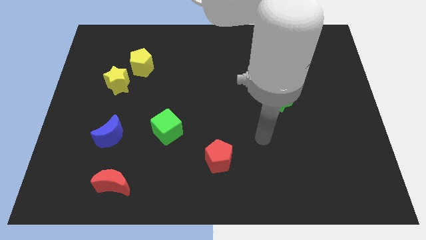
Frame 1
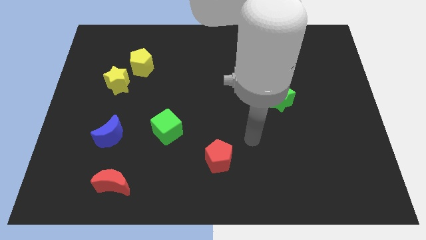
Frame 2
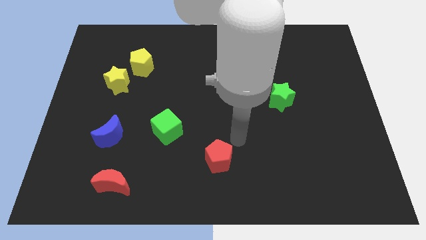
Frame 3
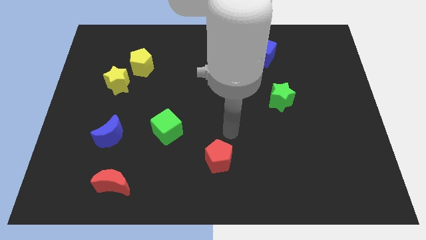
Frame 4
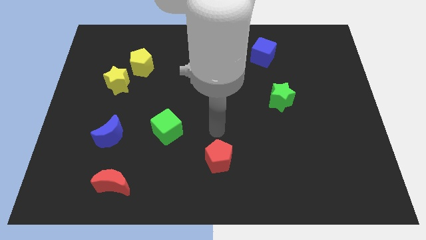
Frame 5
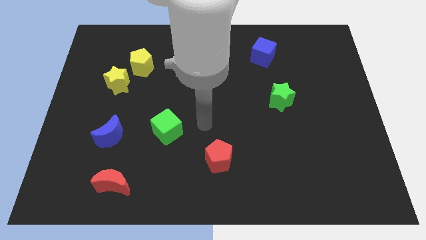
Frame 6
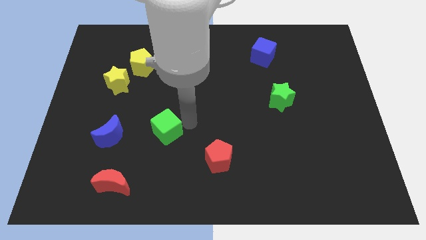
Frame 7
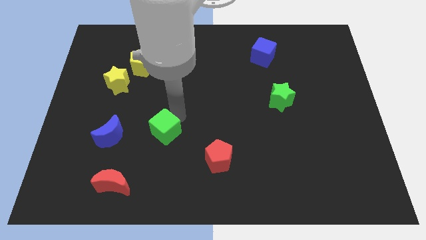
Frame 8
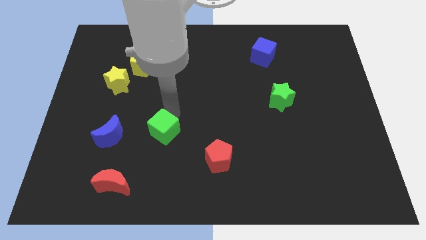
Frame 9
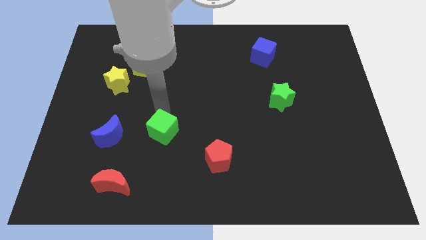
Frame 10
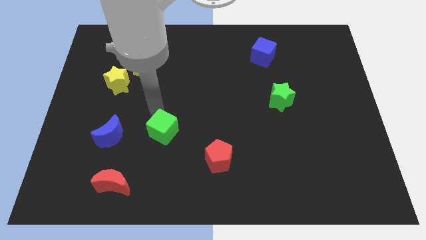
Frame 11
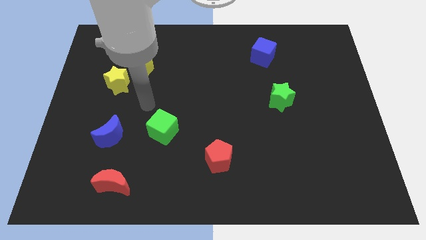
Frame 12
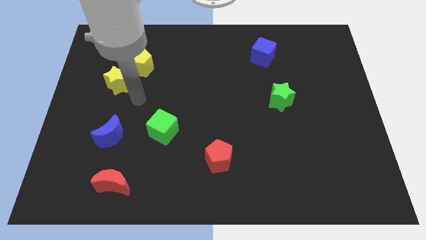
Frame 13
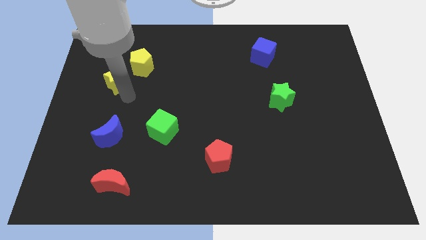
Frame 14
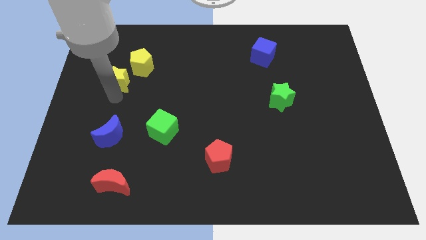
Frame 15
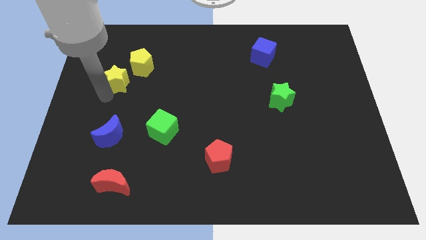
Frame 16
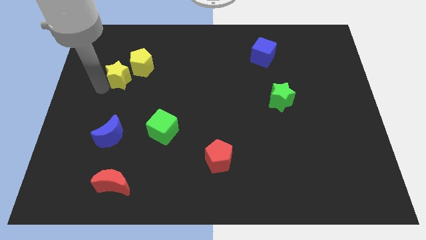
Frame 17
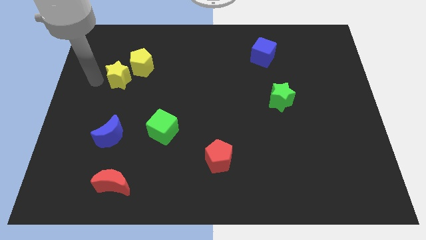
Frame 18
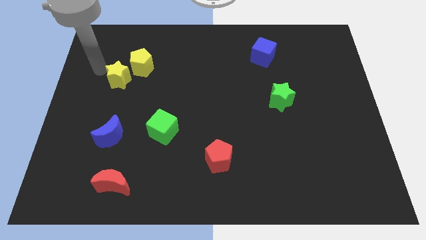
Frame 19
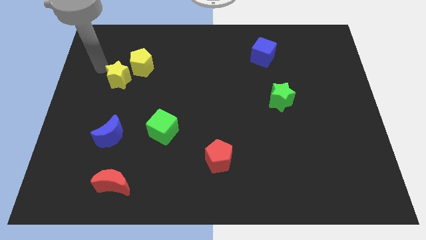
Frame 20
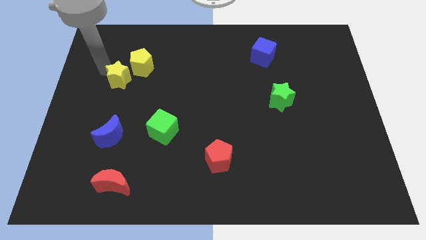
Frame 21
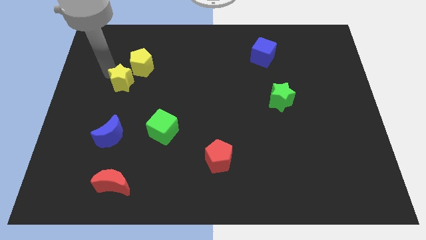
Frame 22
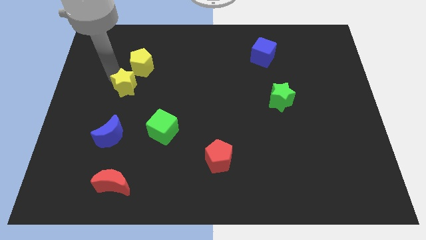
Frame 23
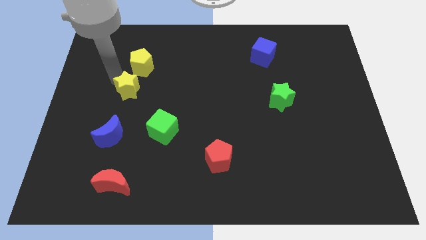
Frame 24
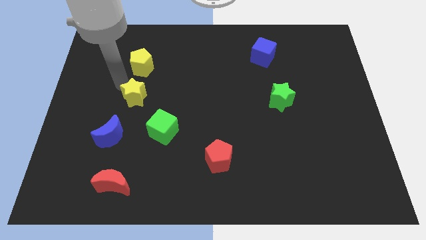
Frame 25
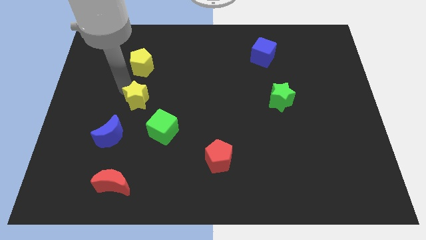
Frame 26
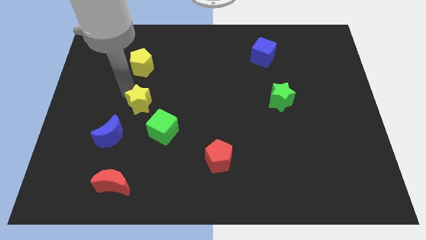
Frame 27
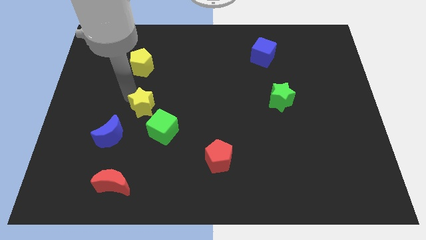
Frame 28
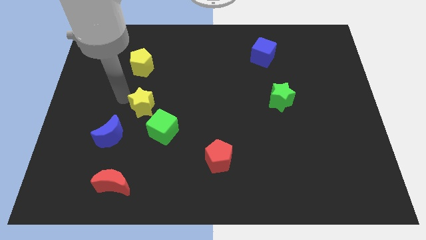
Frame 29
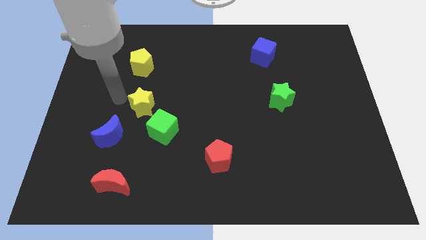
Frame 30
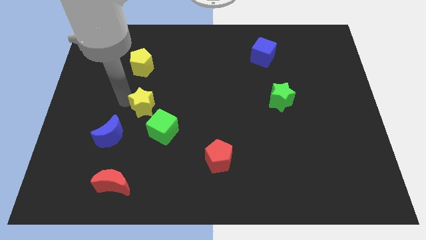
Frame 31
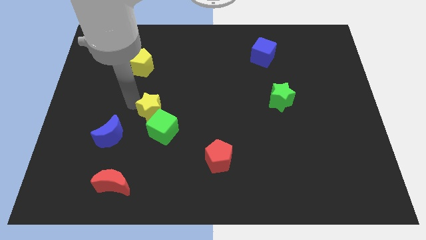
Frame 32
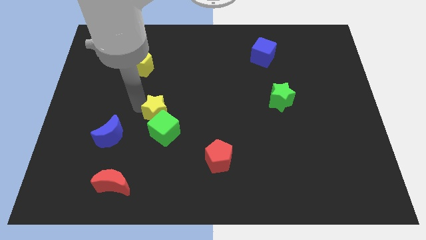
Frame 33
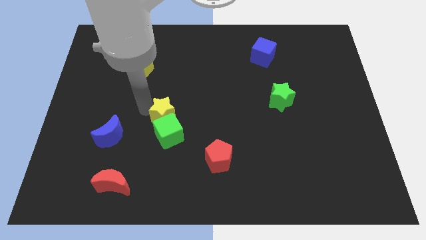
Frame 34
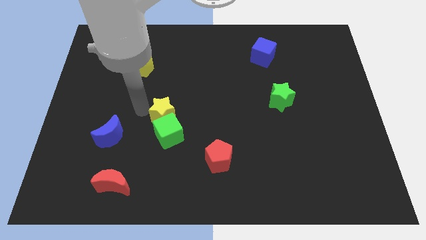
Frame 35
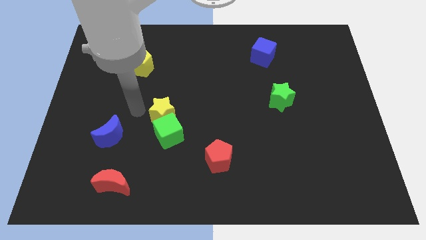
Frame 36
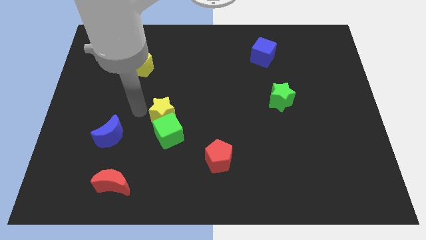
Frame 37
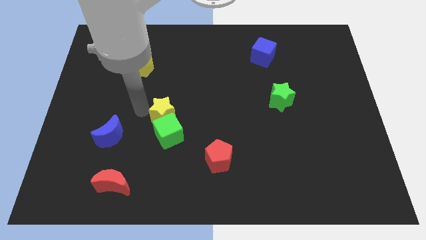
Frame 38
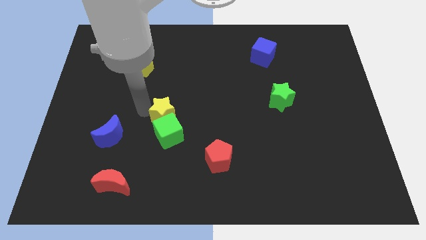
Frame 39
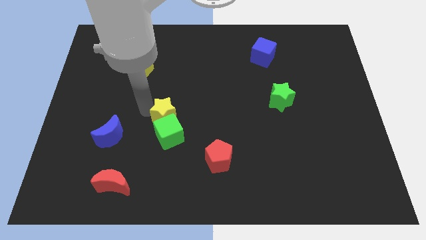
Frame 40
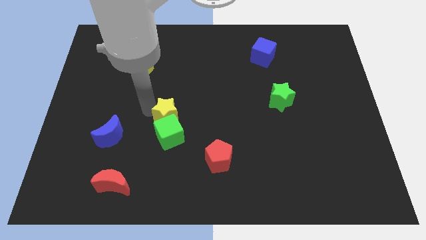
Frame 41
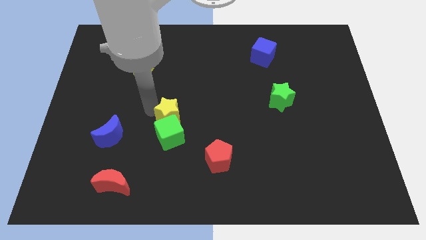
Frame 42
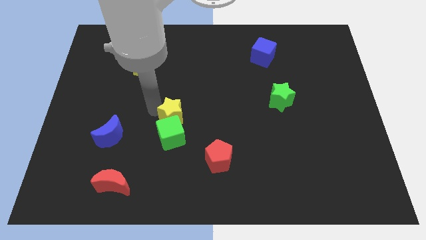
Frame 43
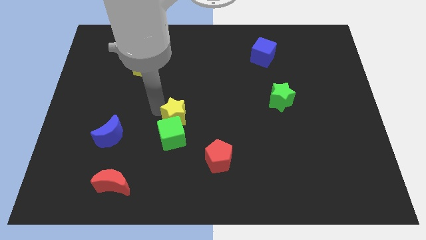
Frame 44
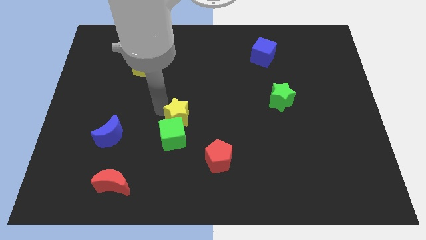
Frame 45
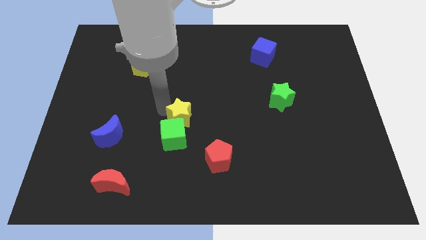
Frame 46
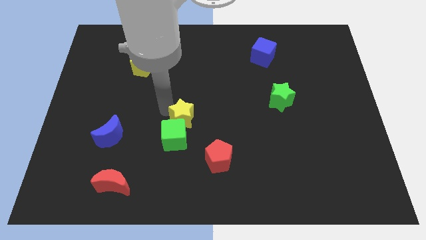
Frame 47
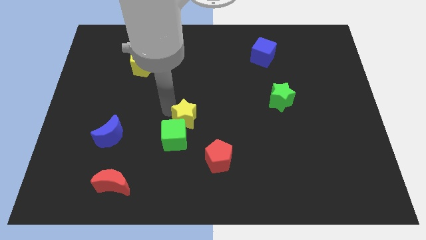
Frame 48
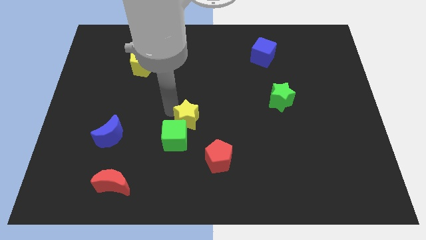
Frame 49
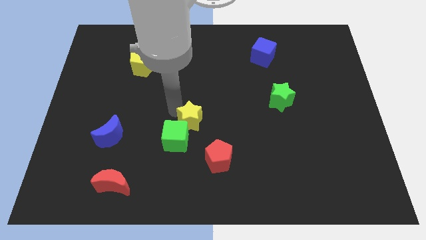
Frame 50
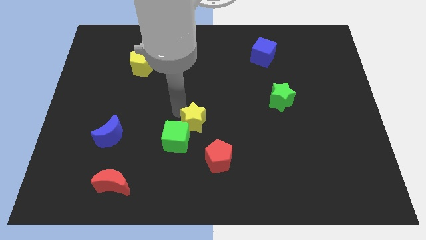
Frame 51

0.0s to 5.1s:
put the yellow star just right of the green cube

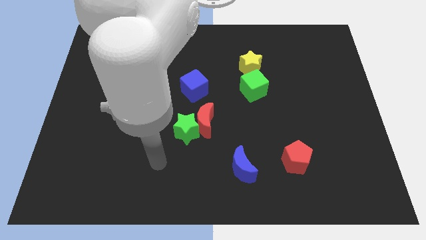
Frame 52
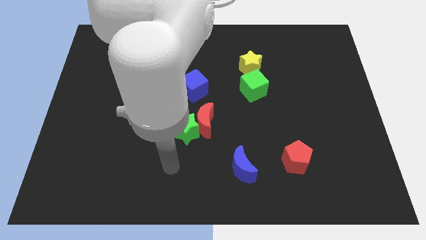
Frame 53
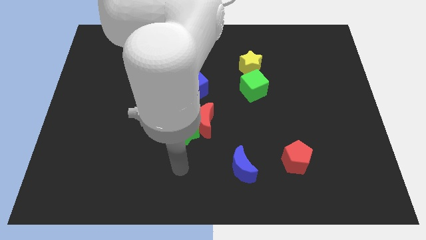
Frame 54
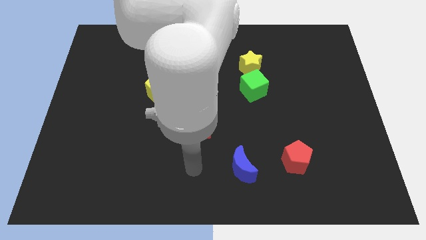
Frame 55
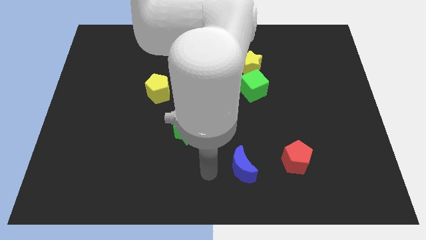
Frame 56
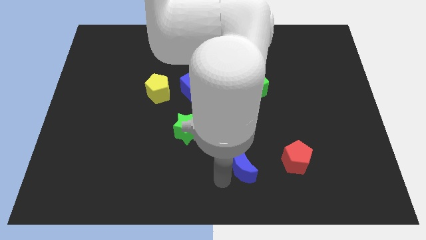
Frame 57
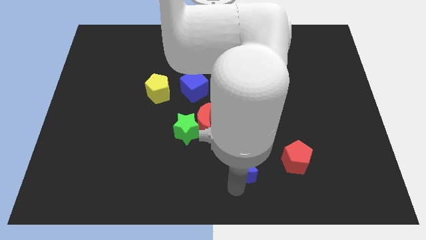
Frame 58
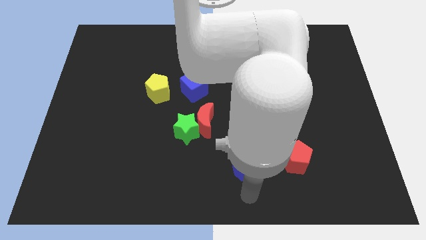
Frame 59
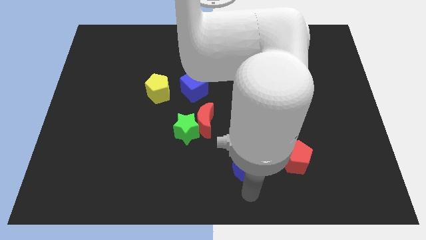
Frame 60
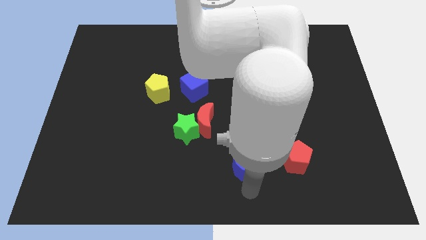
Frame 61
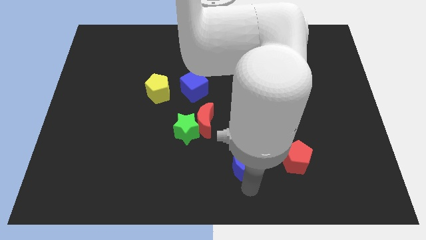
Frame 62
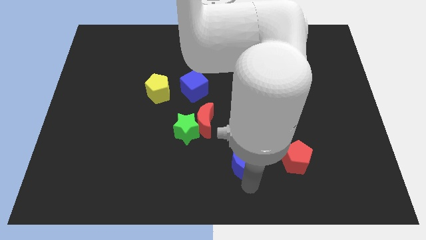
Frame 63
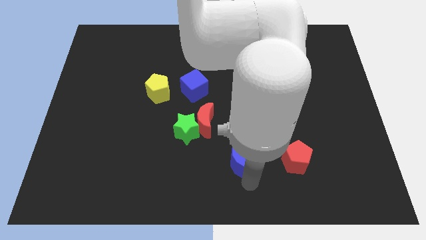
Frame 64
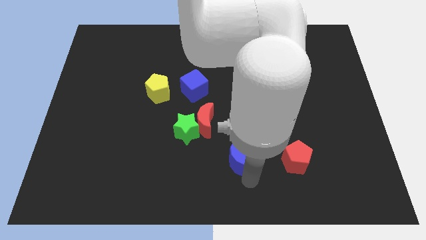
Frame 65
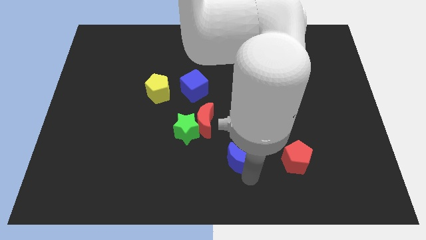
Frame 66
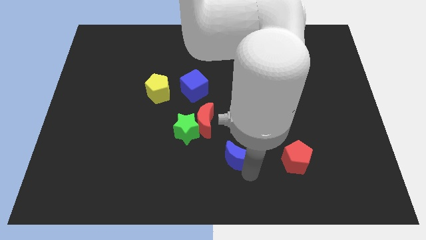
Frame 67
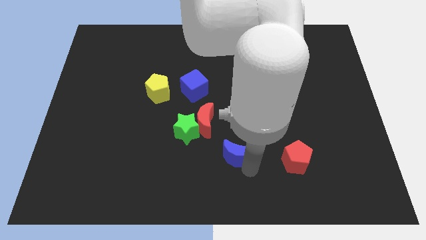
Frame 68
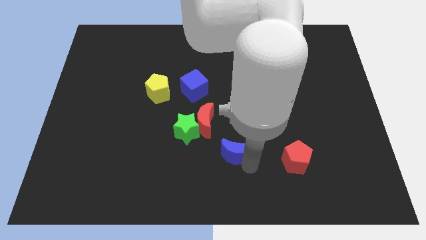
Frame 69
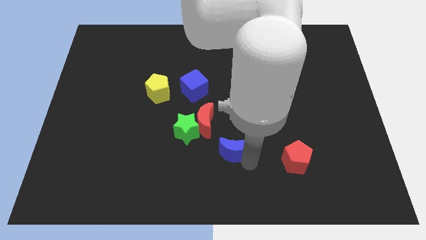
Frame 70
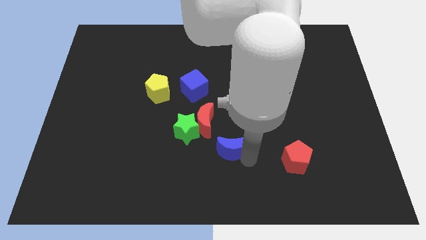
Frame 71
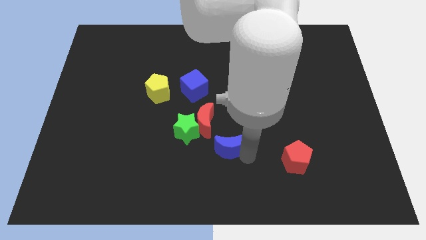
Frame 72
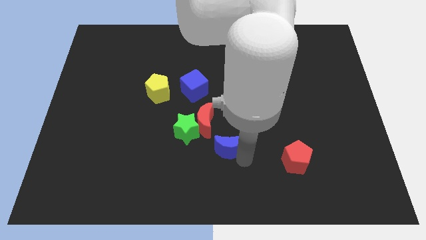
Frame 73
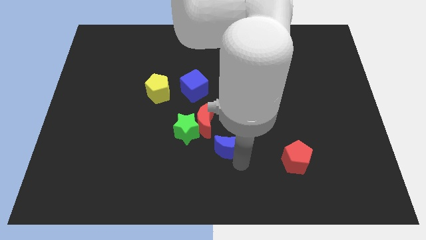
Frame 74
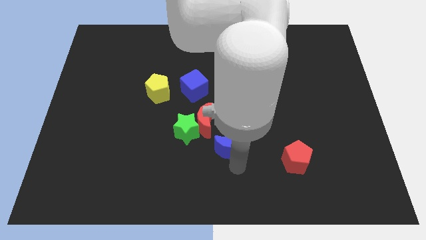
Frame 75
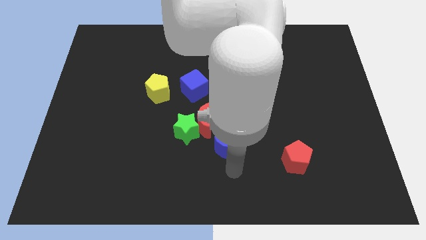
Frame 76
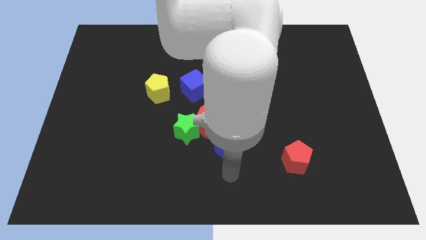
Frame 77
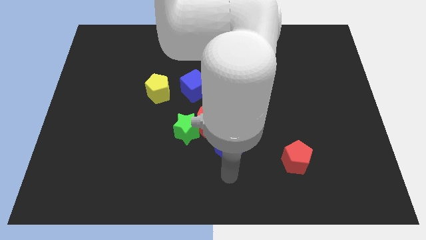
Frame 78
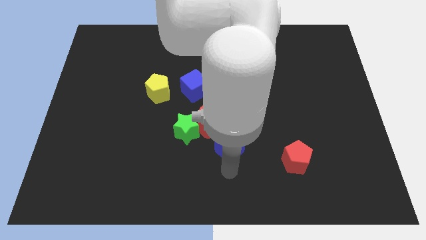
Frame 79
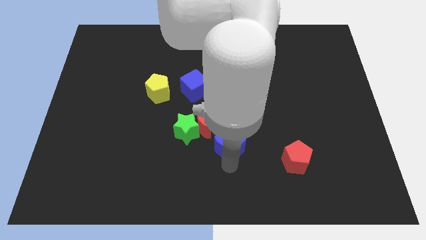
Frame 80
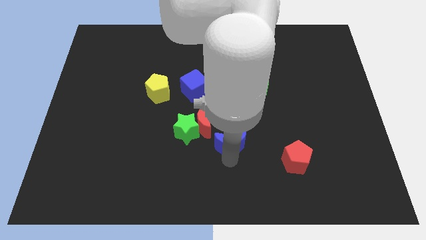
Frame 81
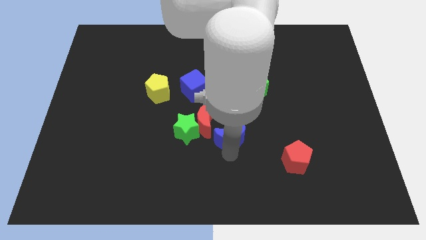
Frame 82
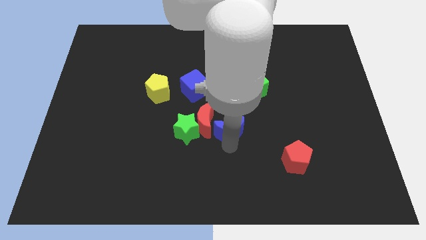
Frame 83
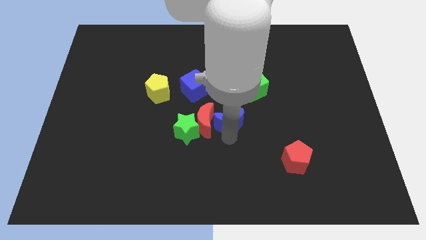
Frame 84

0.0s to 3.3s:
move the blue moon to the bottom left side of the green cube
